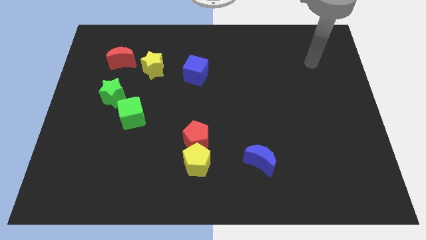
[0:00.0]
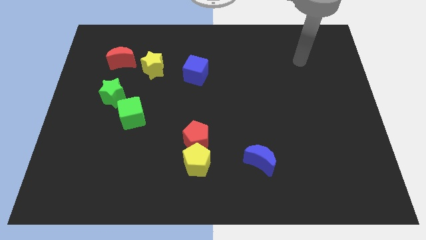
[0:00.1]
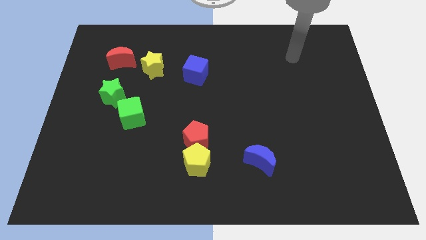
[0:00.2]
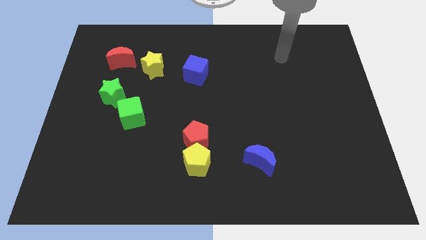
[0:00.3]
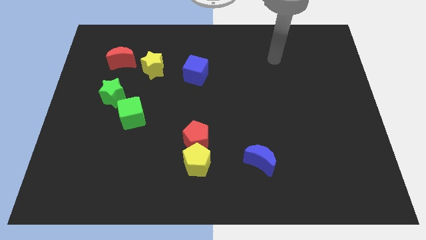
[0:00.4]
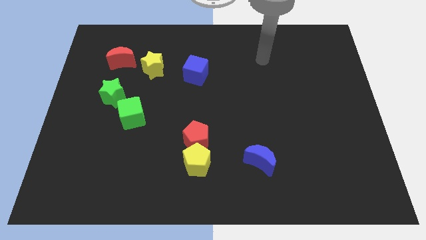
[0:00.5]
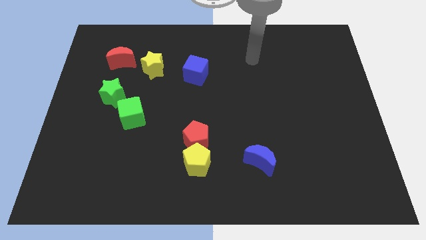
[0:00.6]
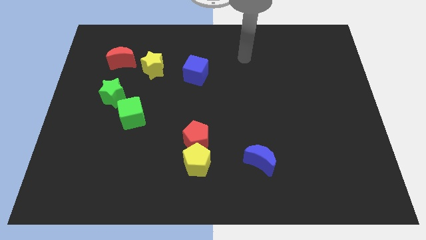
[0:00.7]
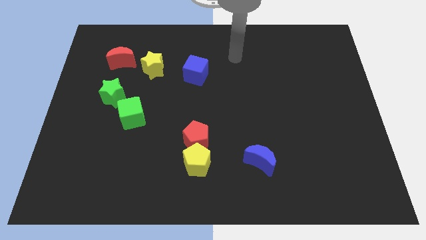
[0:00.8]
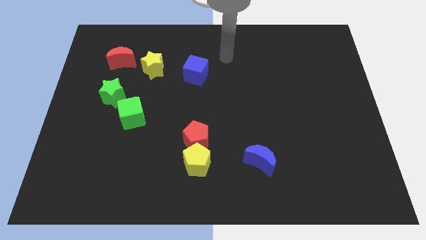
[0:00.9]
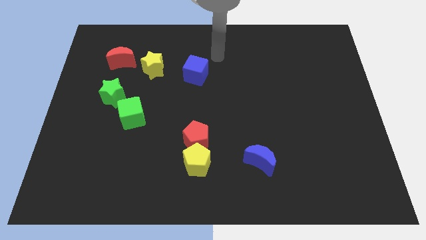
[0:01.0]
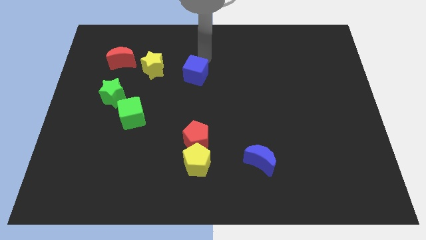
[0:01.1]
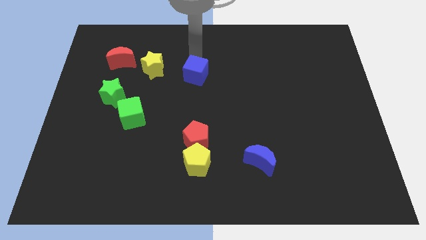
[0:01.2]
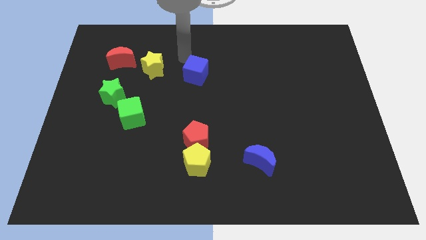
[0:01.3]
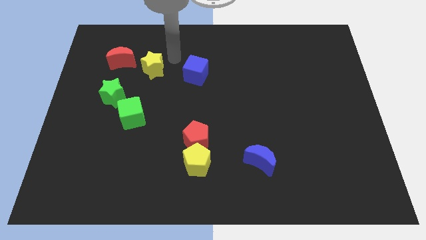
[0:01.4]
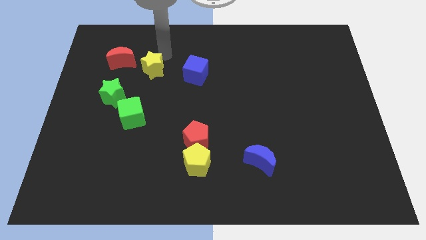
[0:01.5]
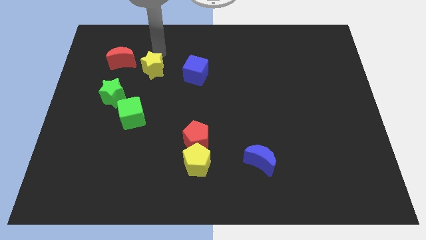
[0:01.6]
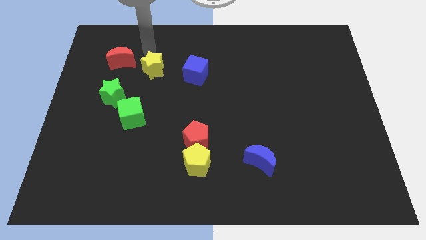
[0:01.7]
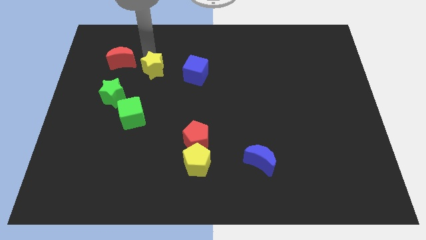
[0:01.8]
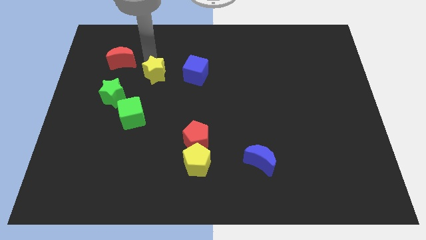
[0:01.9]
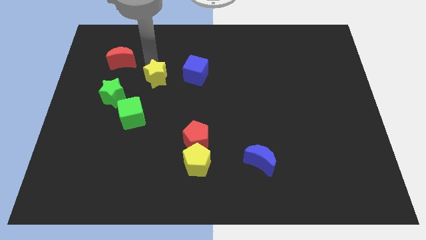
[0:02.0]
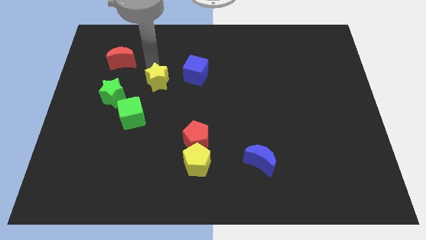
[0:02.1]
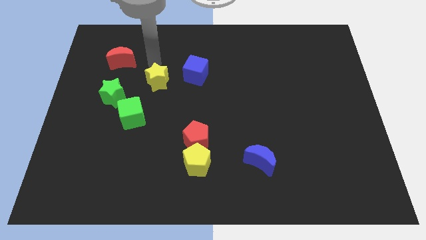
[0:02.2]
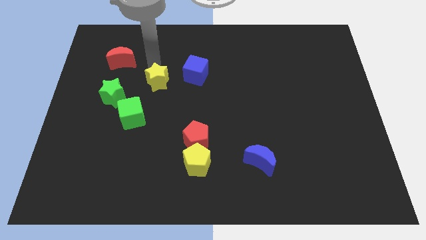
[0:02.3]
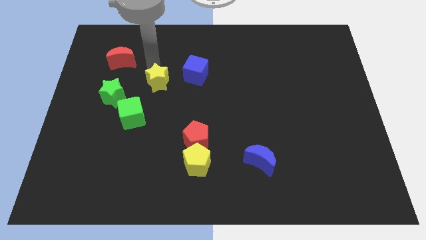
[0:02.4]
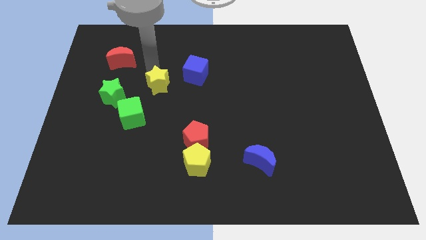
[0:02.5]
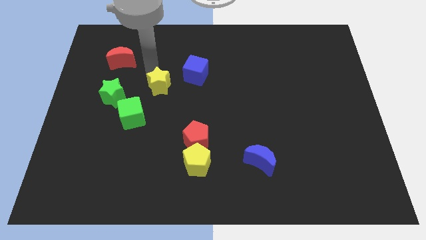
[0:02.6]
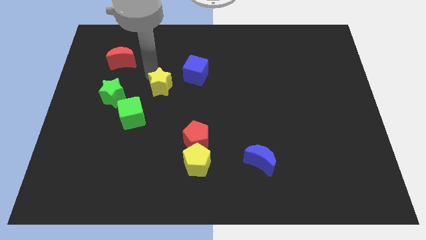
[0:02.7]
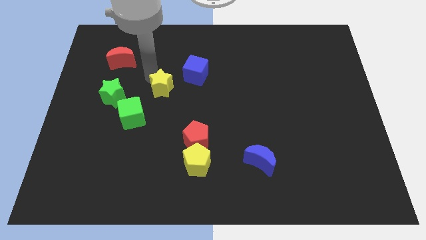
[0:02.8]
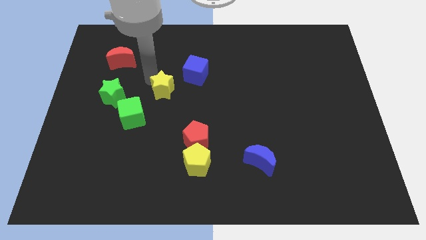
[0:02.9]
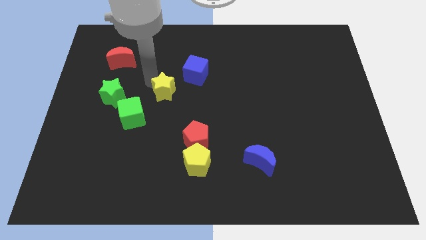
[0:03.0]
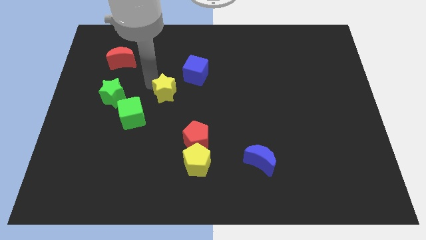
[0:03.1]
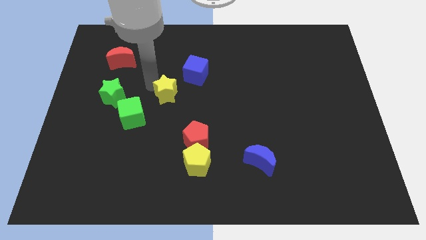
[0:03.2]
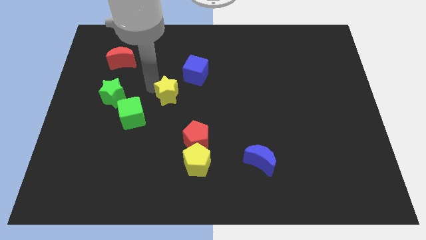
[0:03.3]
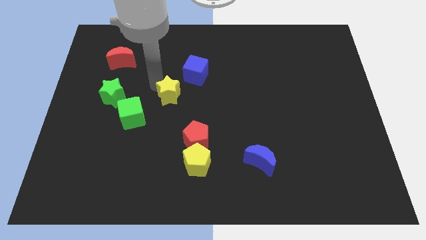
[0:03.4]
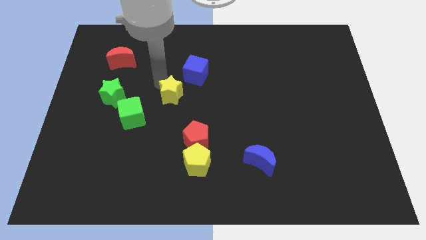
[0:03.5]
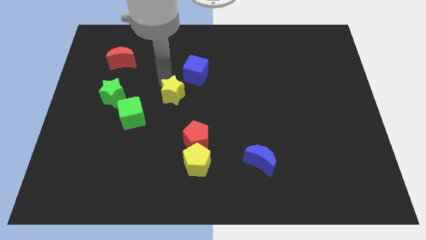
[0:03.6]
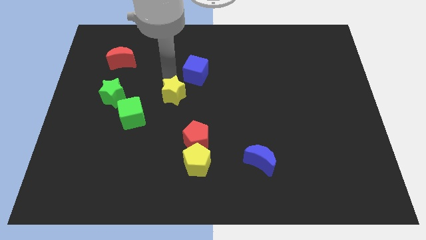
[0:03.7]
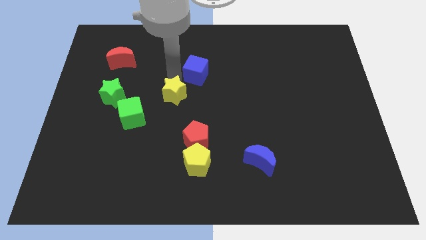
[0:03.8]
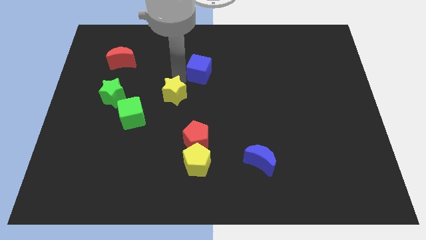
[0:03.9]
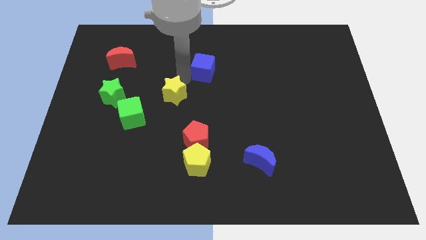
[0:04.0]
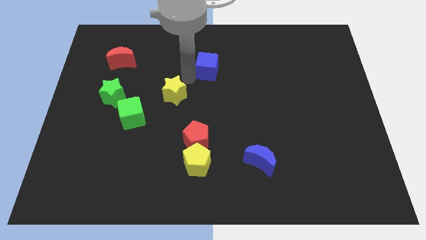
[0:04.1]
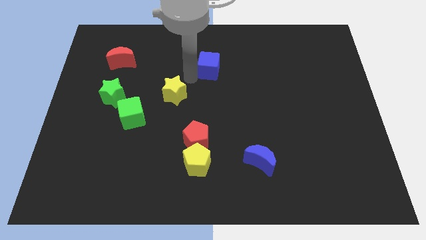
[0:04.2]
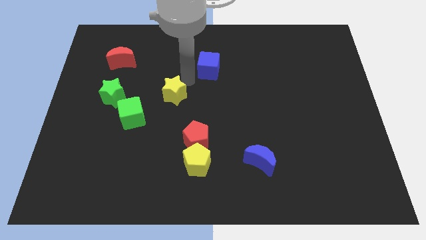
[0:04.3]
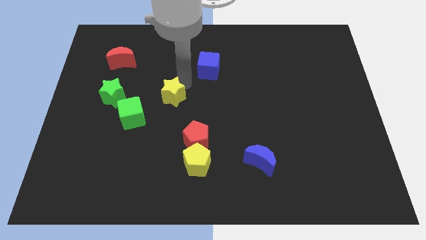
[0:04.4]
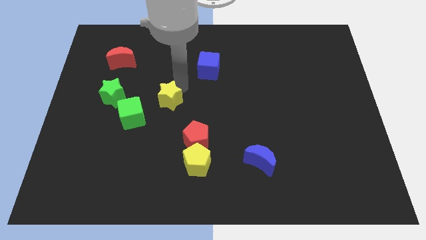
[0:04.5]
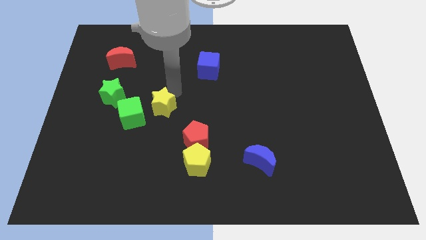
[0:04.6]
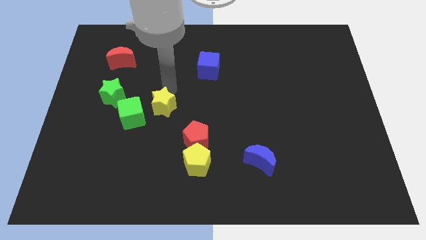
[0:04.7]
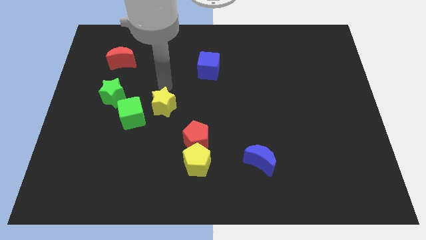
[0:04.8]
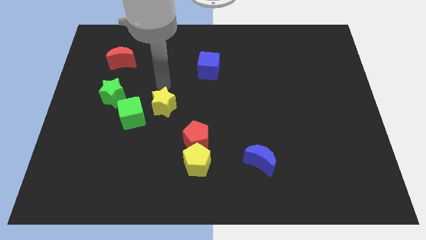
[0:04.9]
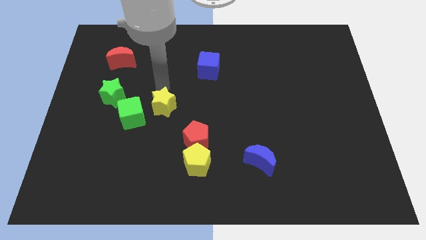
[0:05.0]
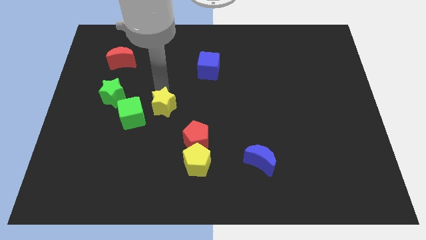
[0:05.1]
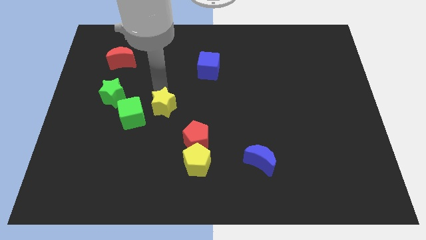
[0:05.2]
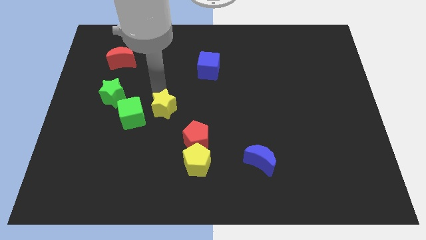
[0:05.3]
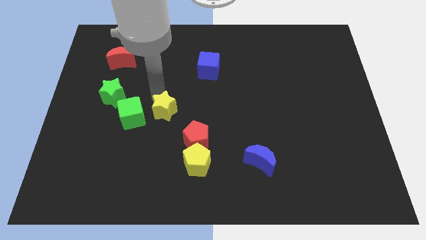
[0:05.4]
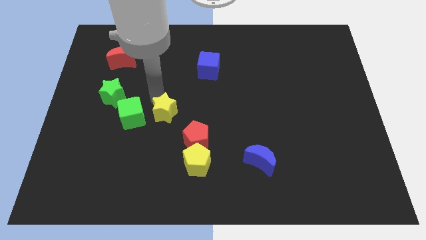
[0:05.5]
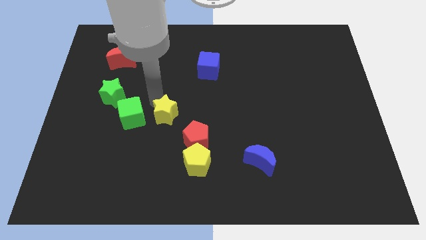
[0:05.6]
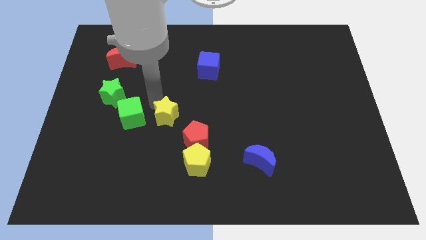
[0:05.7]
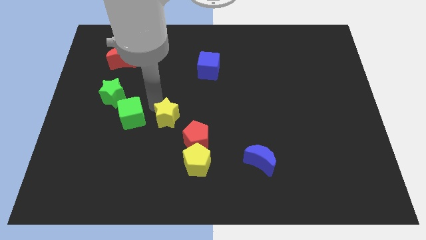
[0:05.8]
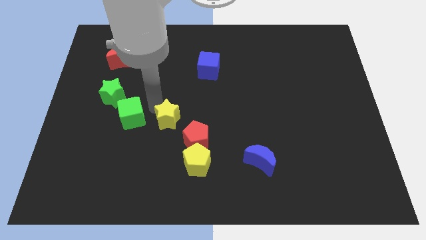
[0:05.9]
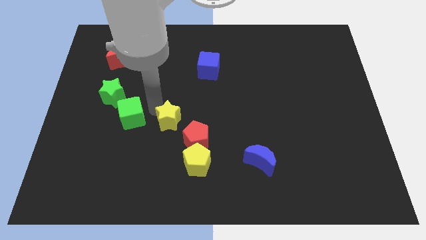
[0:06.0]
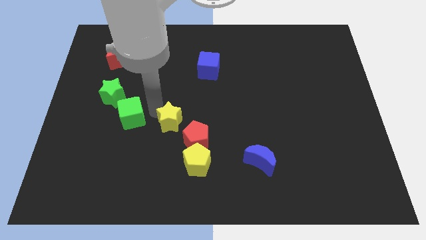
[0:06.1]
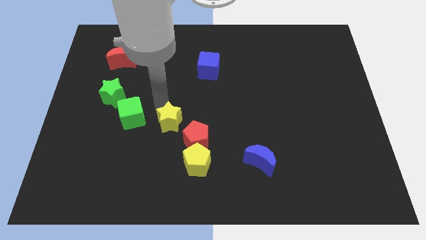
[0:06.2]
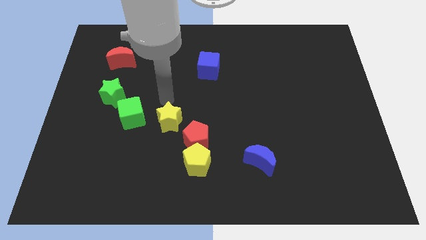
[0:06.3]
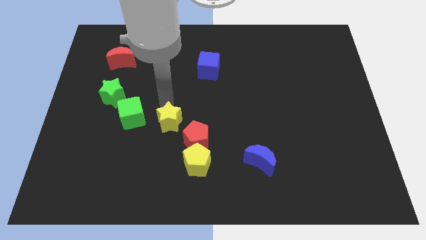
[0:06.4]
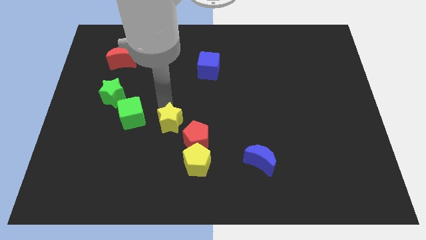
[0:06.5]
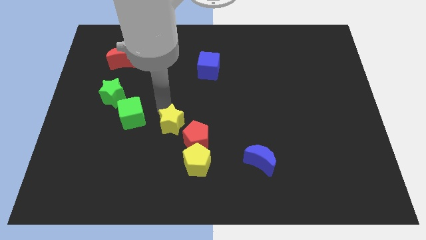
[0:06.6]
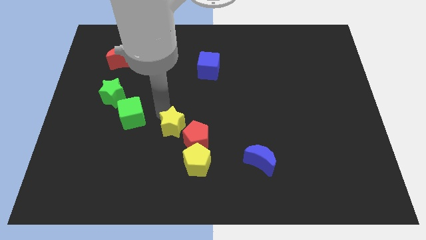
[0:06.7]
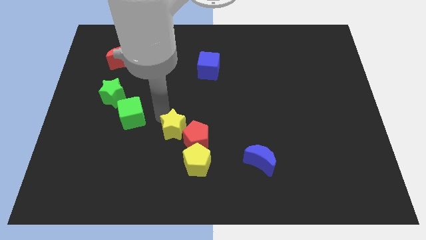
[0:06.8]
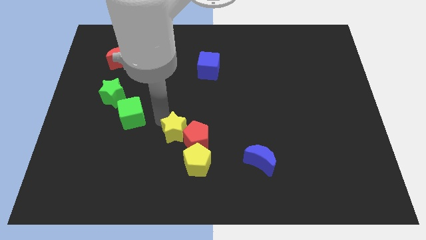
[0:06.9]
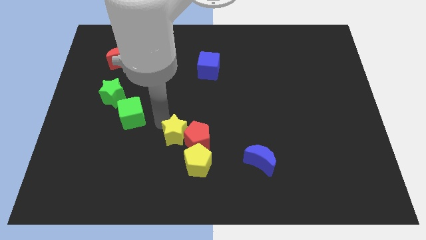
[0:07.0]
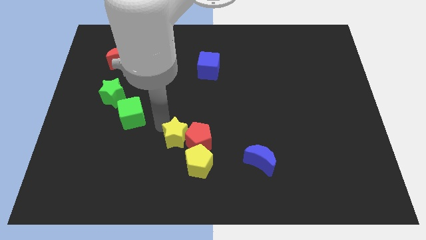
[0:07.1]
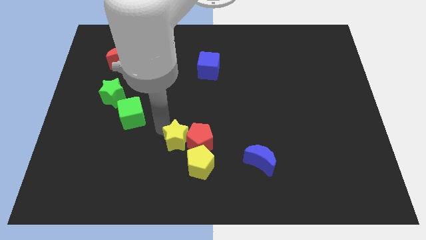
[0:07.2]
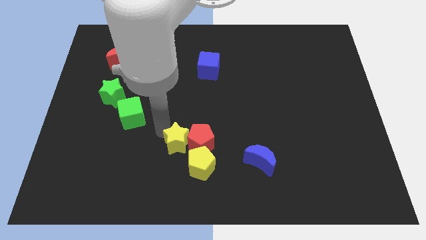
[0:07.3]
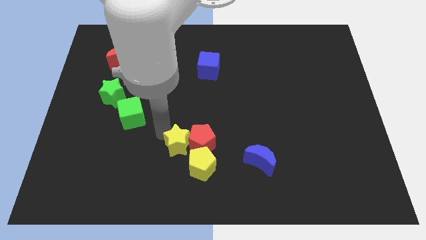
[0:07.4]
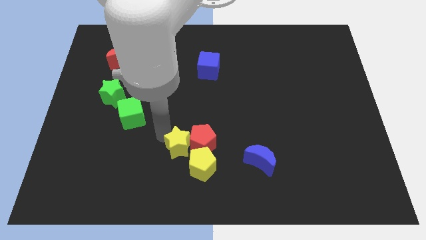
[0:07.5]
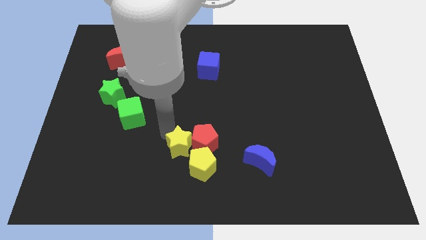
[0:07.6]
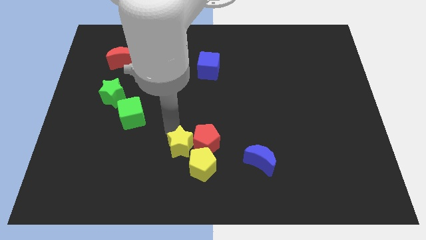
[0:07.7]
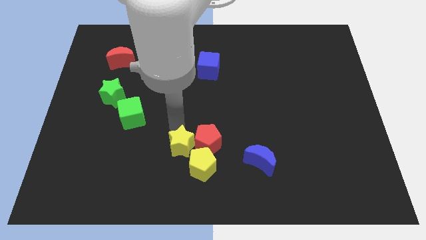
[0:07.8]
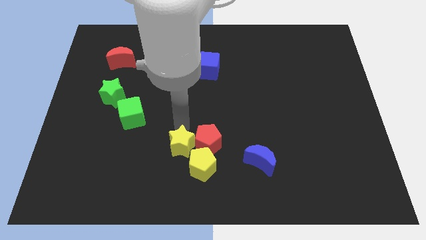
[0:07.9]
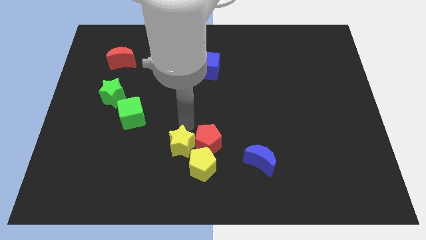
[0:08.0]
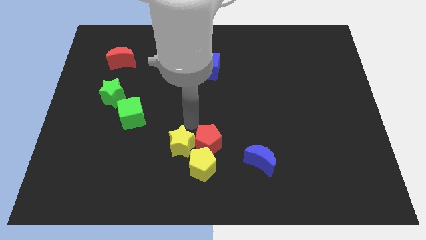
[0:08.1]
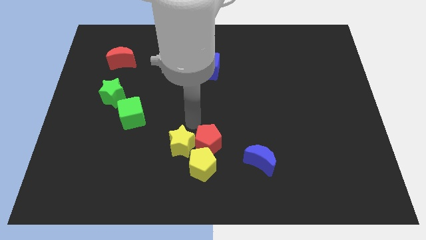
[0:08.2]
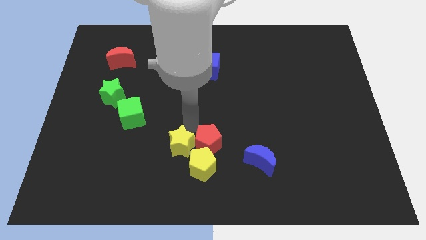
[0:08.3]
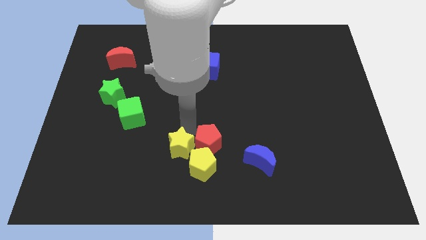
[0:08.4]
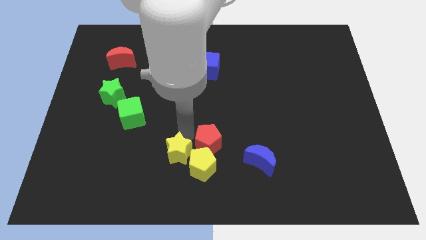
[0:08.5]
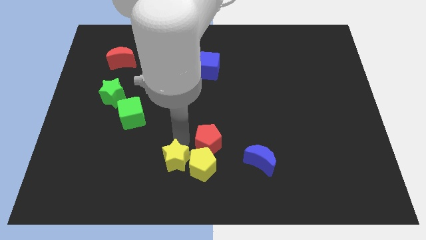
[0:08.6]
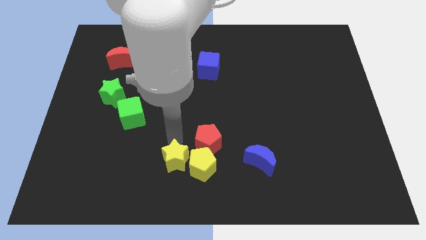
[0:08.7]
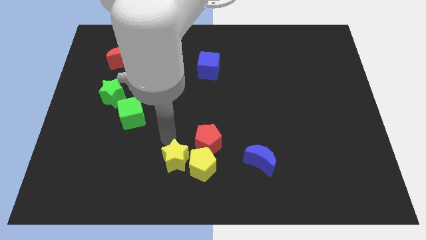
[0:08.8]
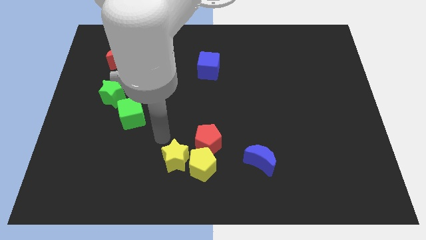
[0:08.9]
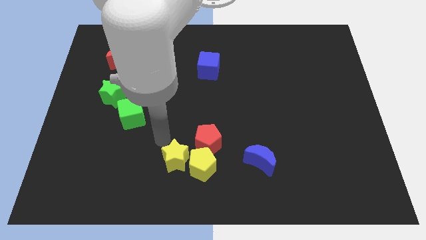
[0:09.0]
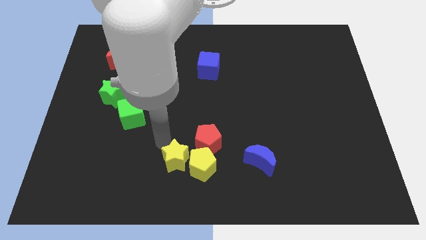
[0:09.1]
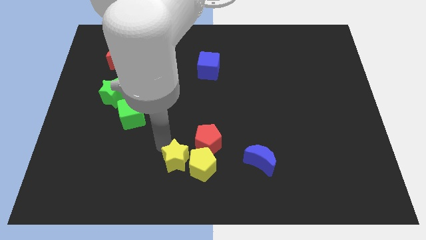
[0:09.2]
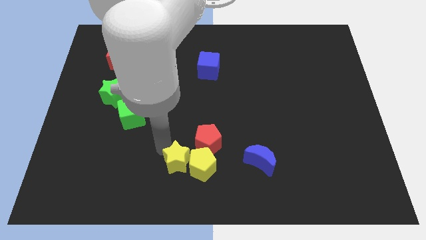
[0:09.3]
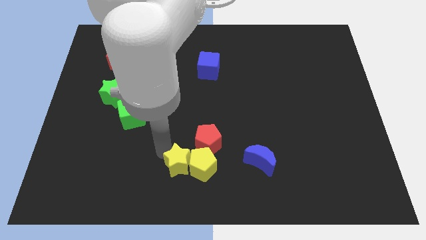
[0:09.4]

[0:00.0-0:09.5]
push the yellow star to the bottom side
